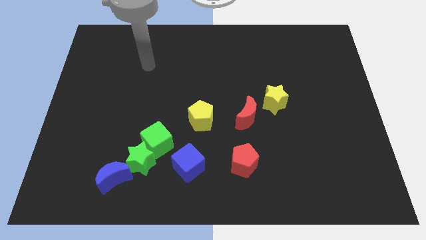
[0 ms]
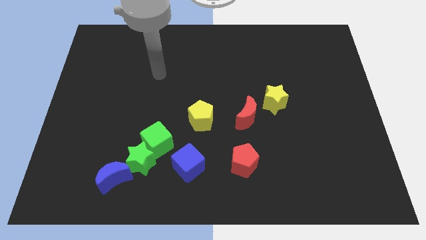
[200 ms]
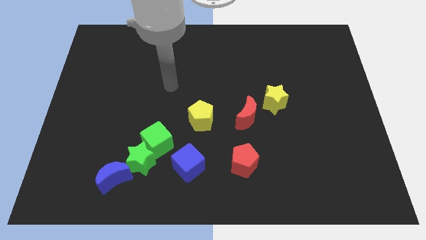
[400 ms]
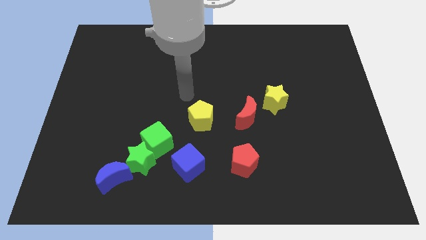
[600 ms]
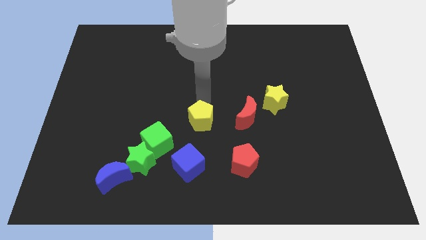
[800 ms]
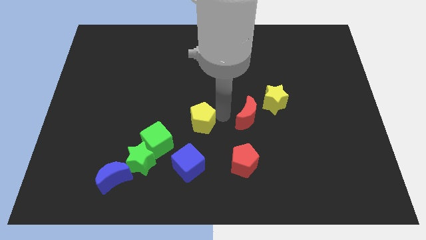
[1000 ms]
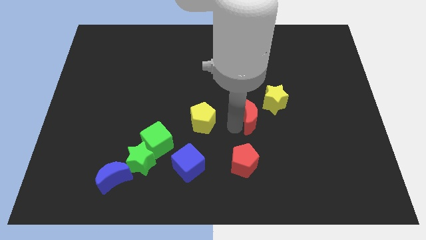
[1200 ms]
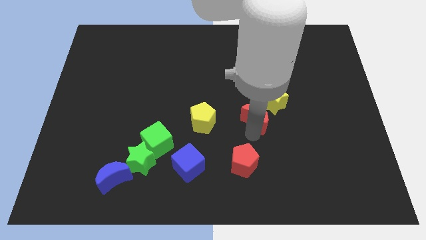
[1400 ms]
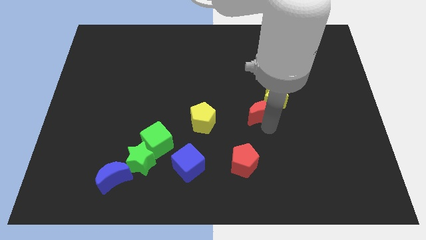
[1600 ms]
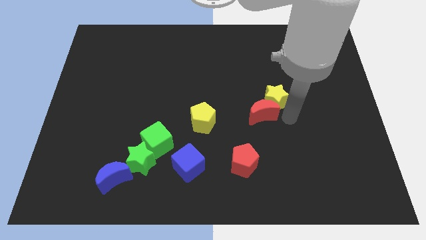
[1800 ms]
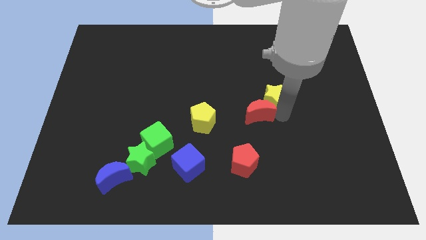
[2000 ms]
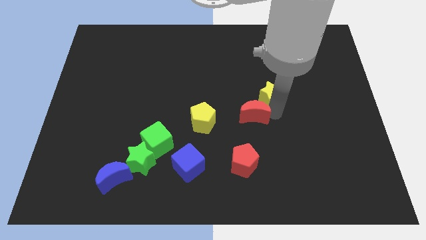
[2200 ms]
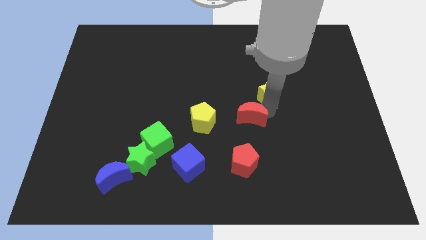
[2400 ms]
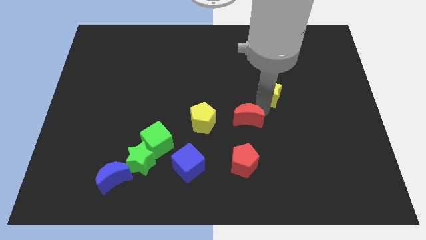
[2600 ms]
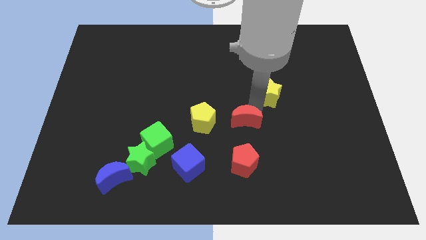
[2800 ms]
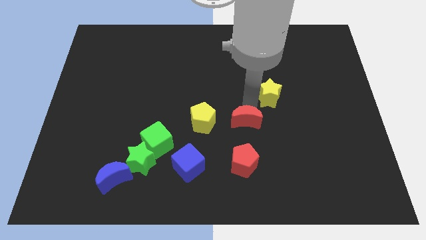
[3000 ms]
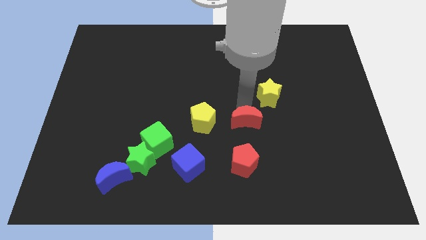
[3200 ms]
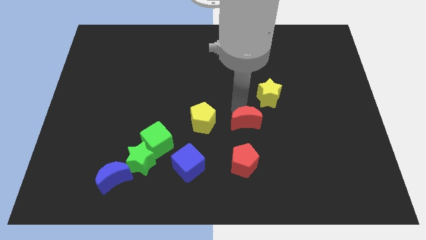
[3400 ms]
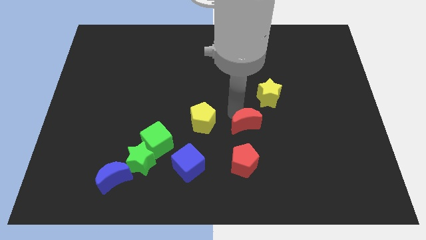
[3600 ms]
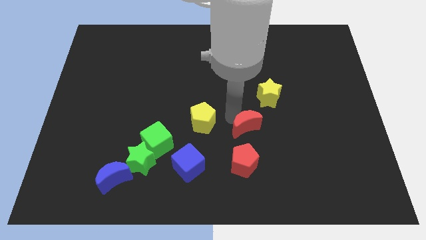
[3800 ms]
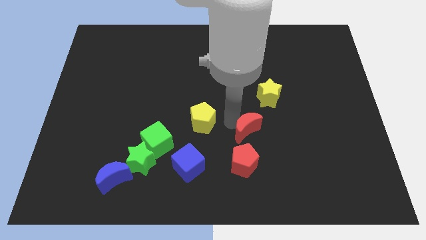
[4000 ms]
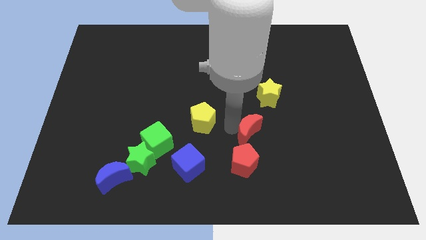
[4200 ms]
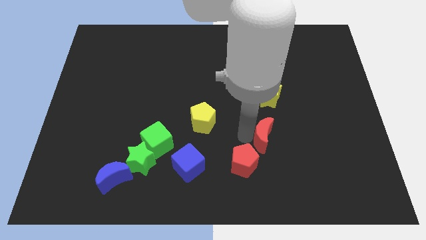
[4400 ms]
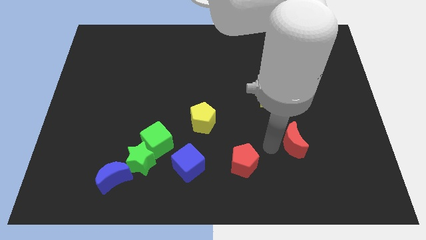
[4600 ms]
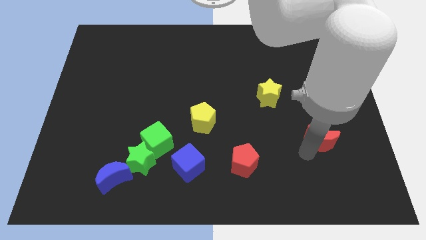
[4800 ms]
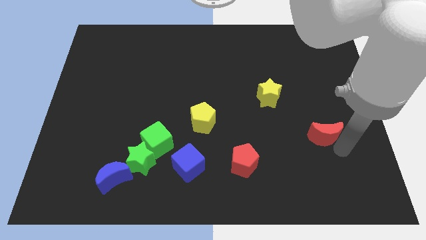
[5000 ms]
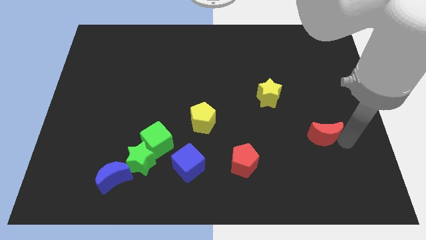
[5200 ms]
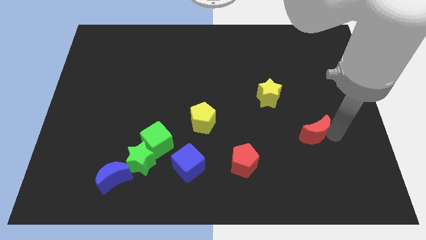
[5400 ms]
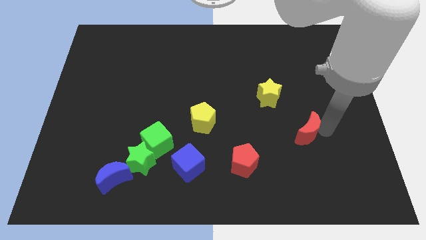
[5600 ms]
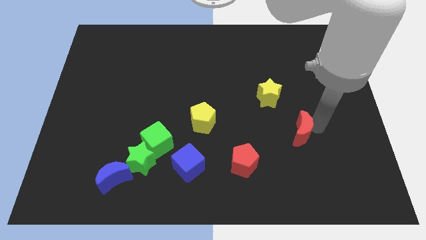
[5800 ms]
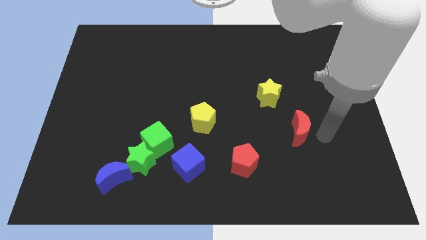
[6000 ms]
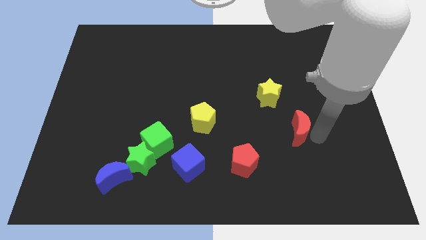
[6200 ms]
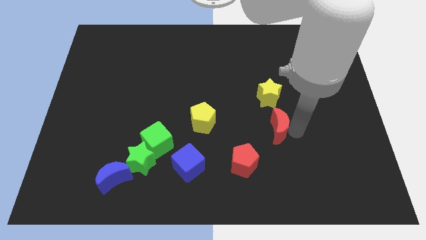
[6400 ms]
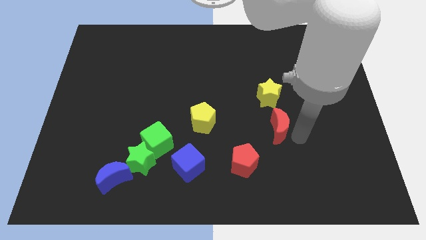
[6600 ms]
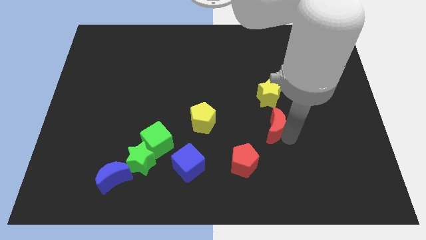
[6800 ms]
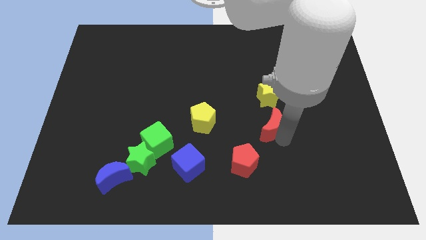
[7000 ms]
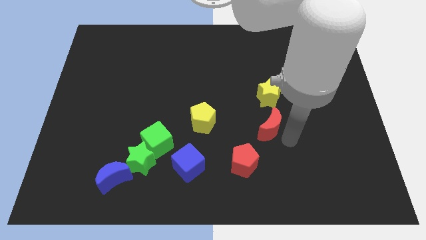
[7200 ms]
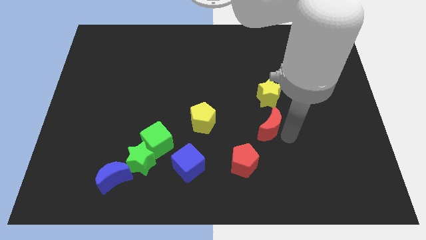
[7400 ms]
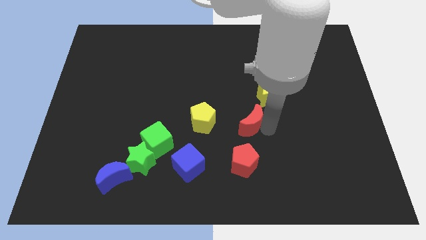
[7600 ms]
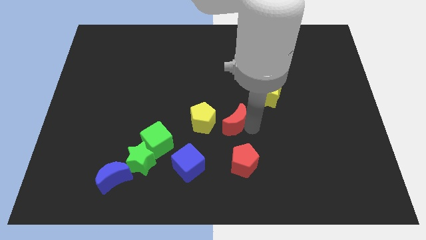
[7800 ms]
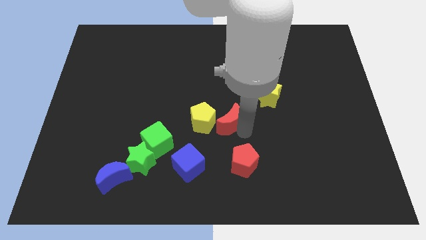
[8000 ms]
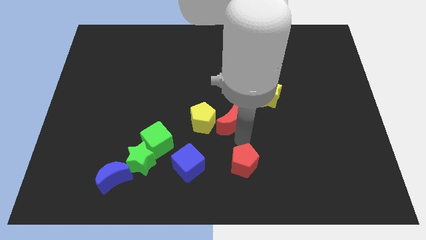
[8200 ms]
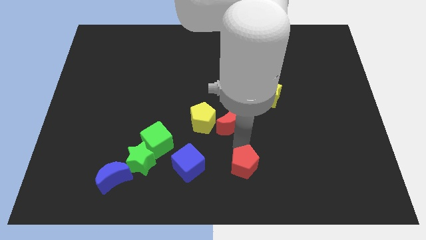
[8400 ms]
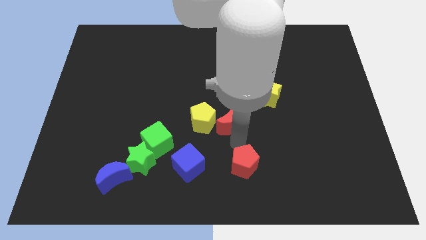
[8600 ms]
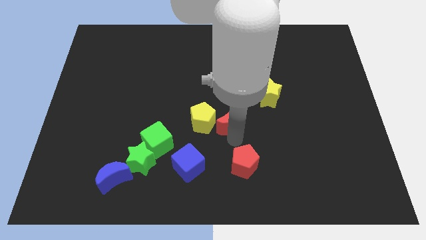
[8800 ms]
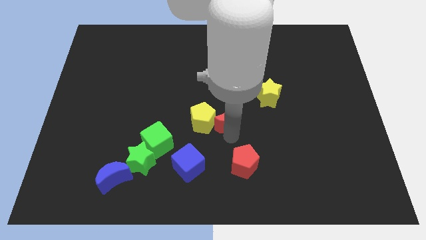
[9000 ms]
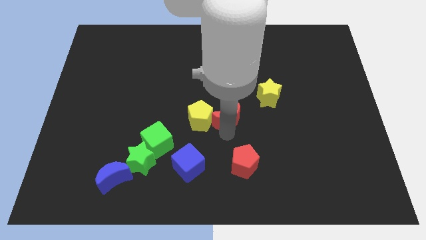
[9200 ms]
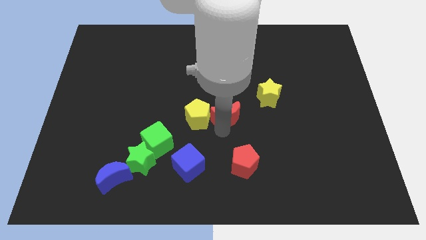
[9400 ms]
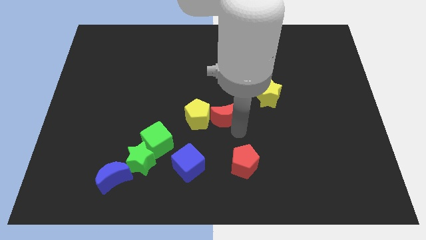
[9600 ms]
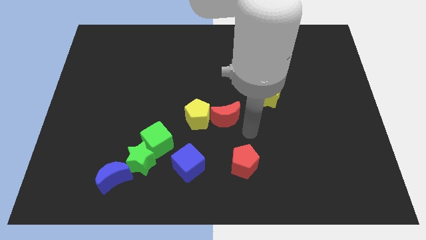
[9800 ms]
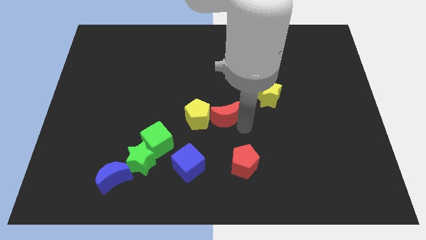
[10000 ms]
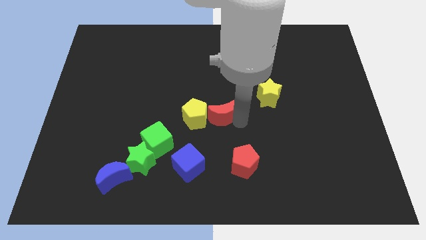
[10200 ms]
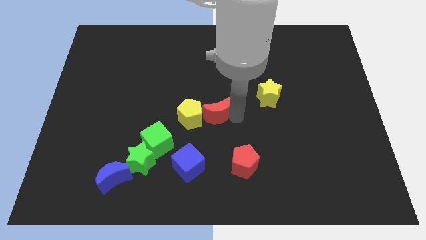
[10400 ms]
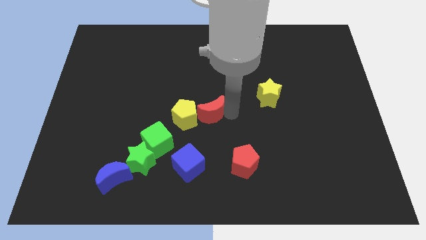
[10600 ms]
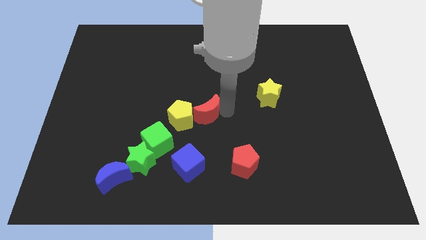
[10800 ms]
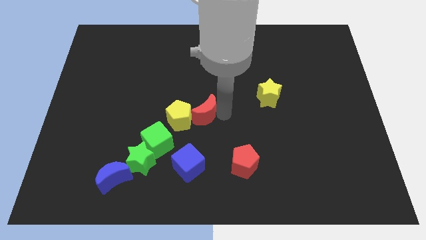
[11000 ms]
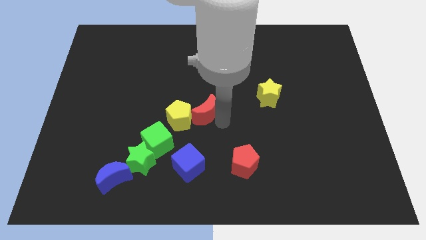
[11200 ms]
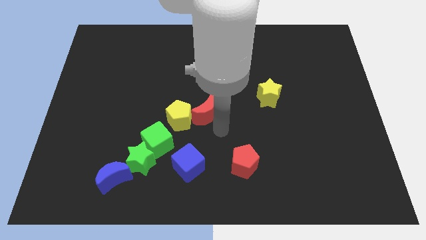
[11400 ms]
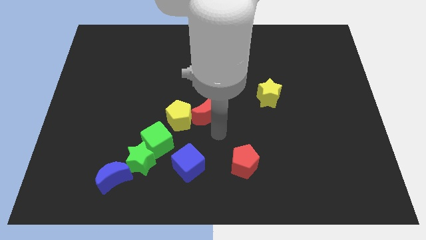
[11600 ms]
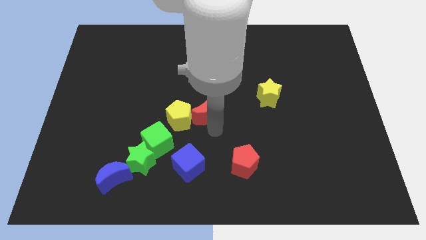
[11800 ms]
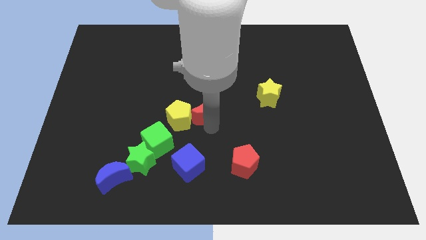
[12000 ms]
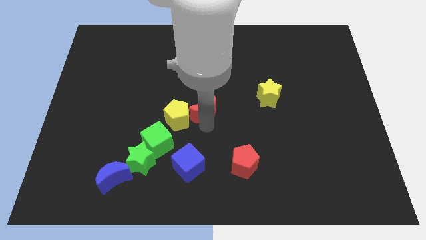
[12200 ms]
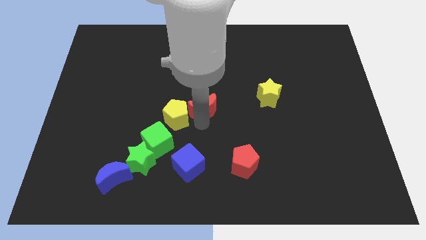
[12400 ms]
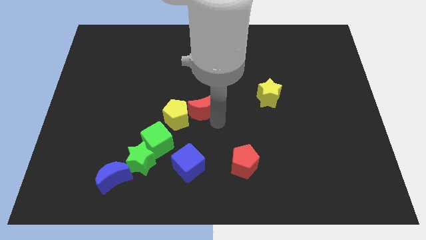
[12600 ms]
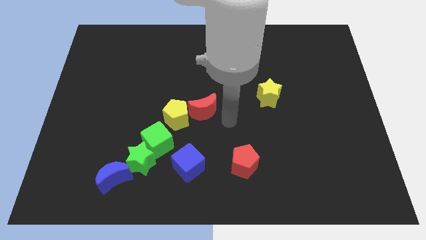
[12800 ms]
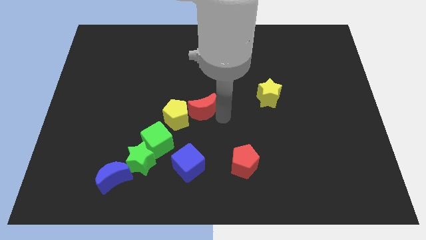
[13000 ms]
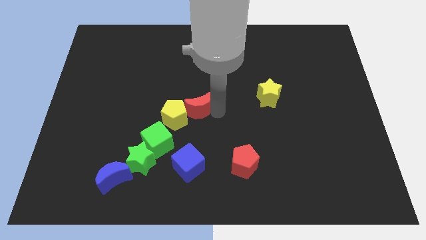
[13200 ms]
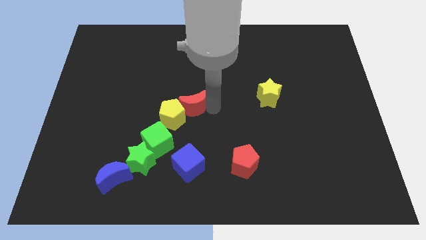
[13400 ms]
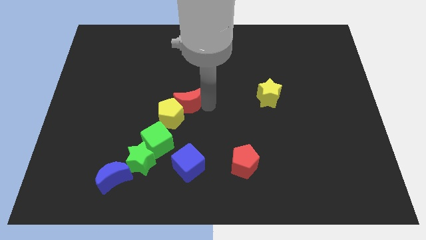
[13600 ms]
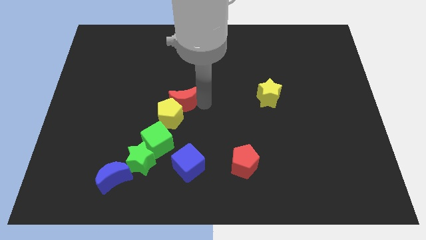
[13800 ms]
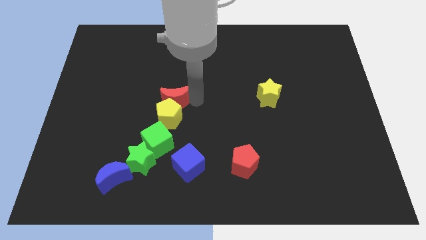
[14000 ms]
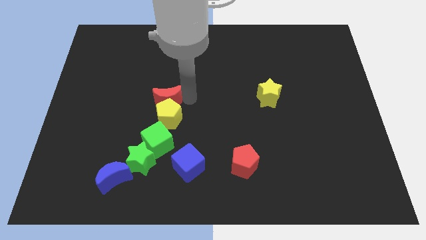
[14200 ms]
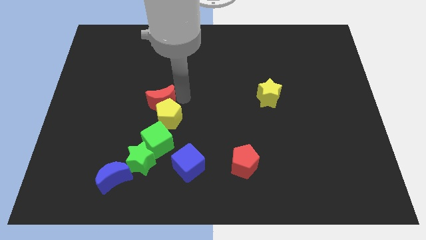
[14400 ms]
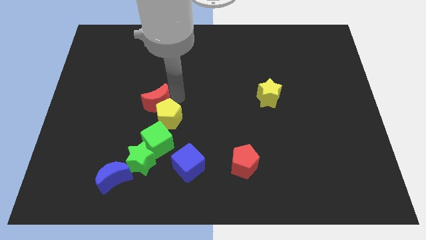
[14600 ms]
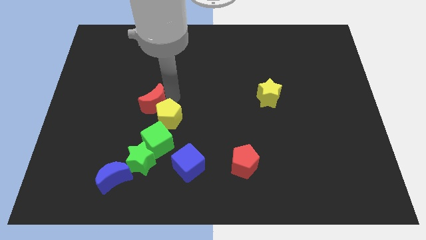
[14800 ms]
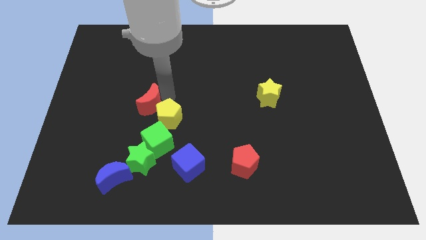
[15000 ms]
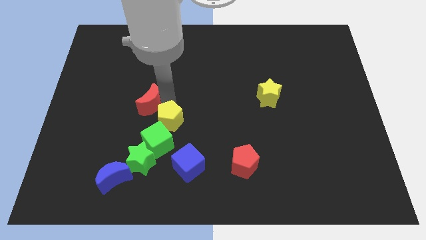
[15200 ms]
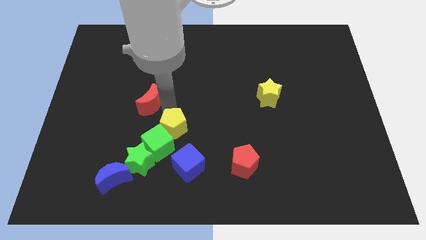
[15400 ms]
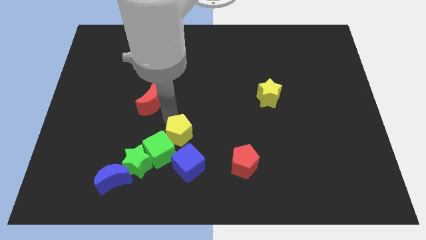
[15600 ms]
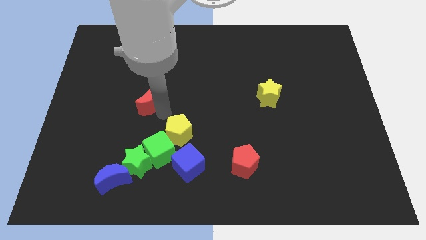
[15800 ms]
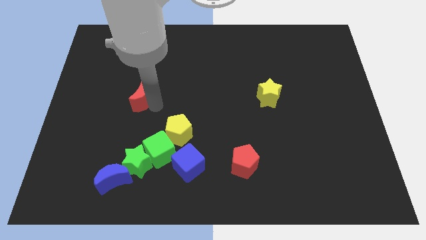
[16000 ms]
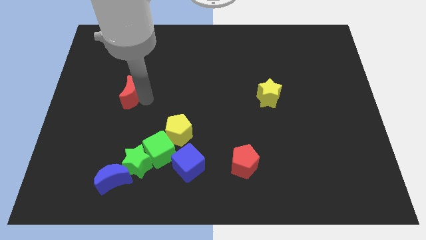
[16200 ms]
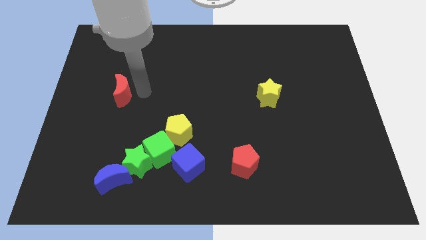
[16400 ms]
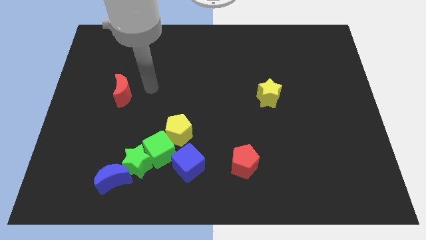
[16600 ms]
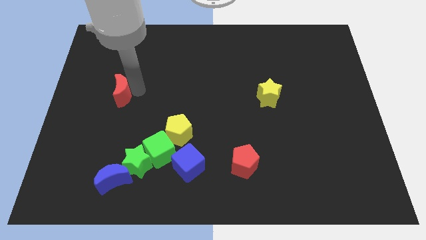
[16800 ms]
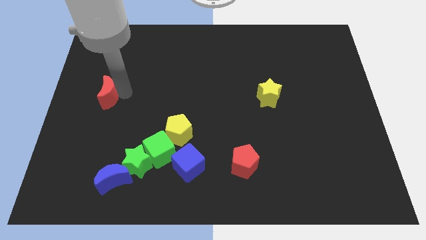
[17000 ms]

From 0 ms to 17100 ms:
move the red moon to the left side
